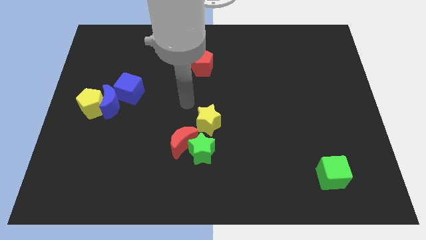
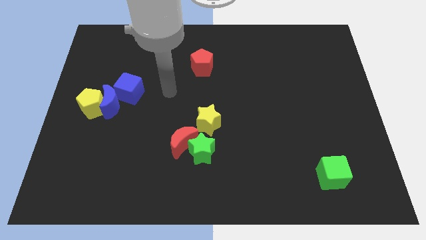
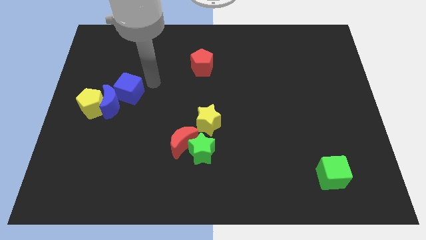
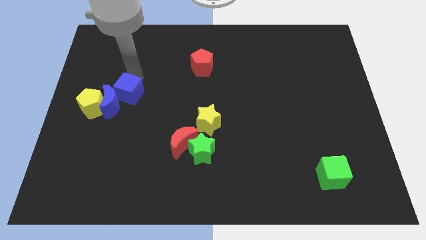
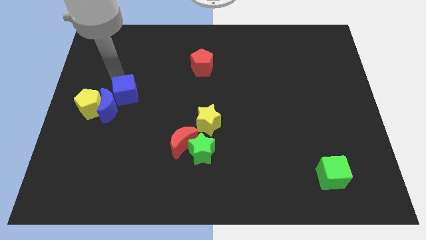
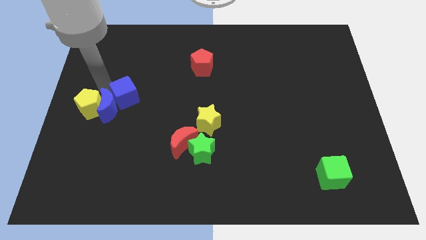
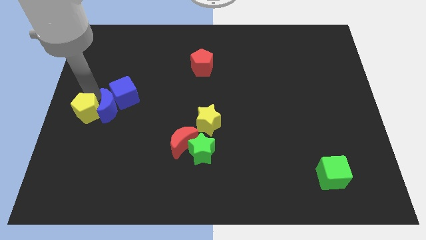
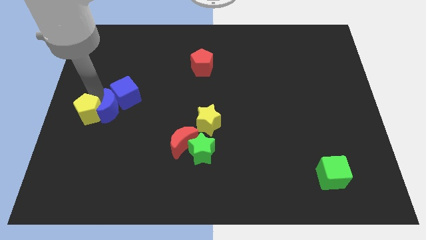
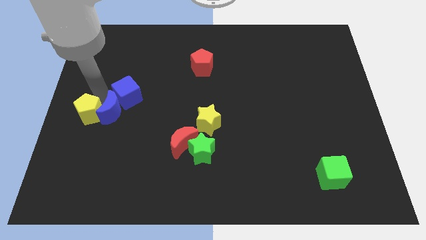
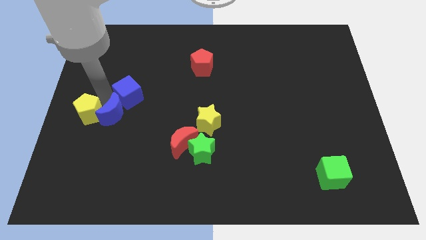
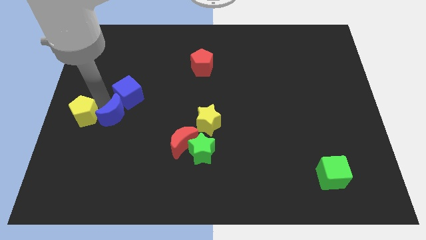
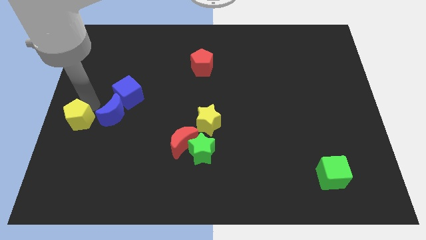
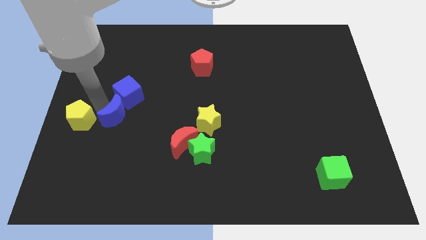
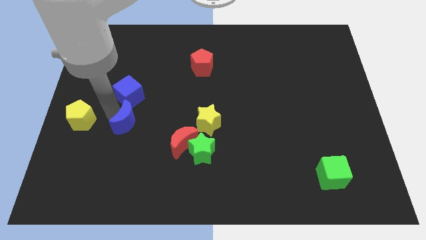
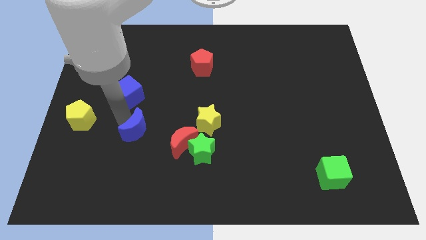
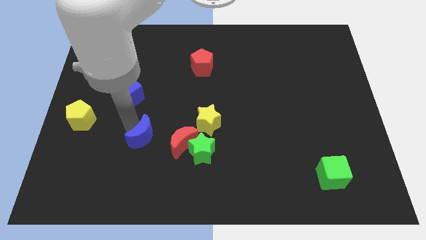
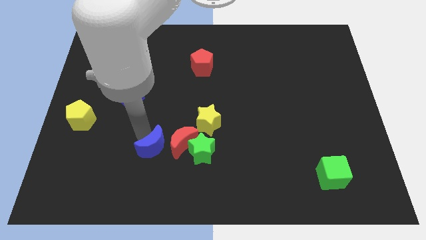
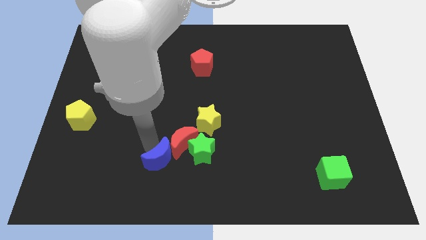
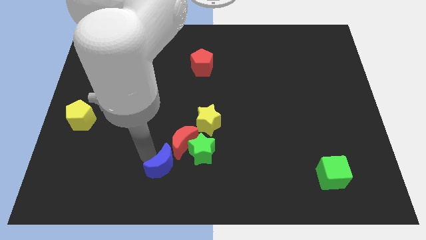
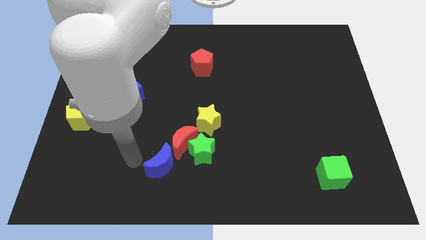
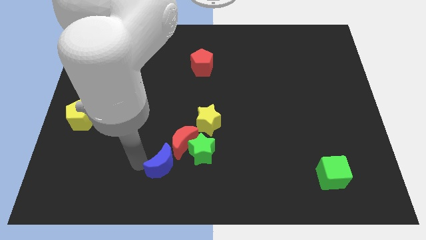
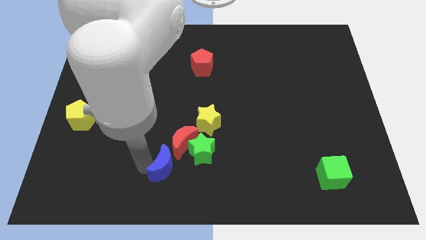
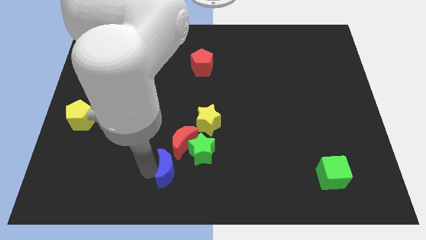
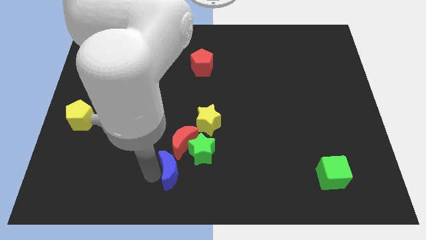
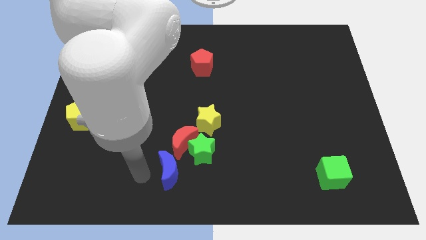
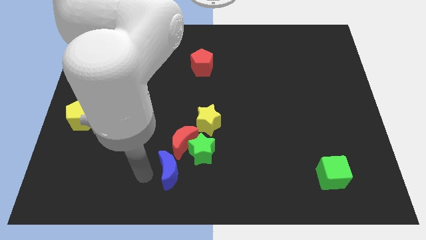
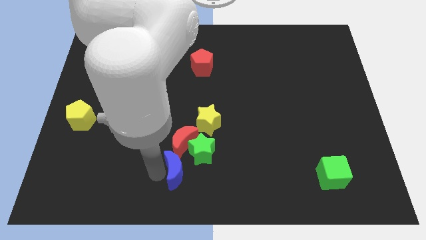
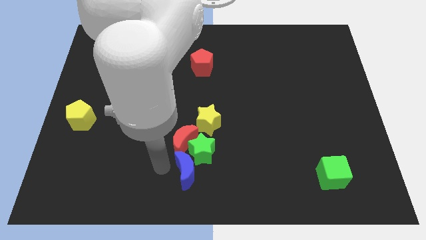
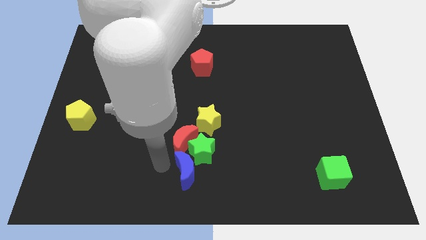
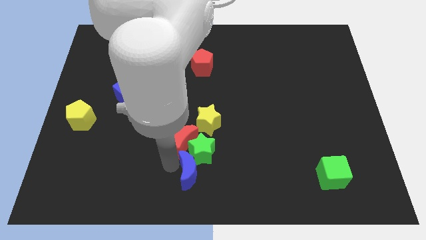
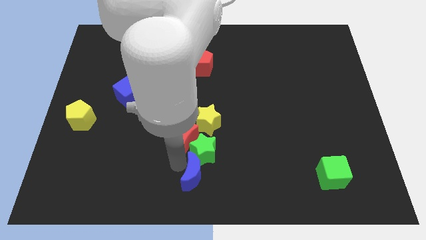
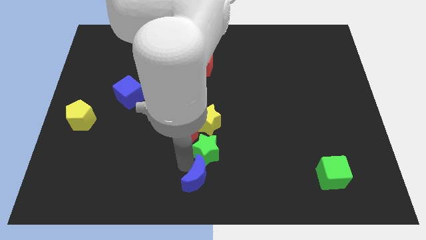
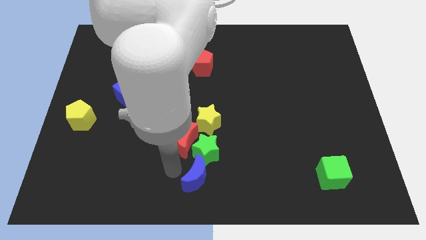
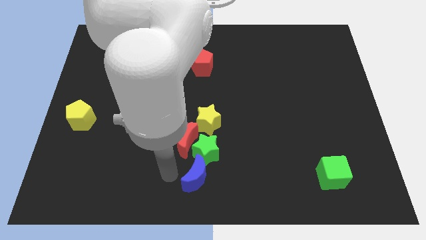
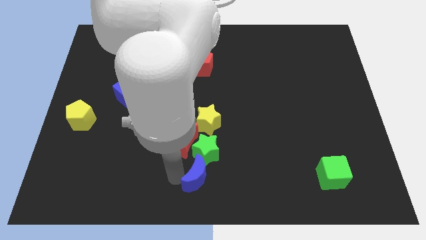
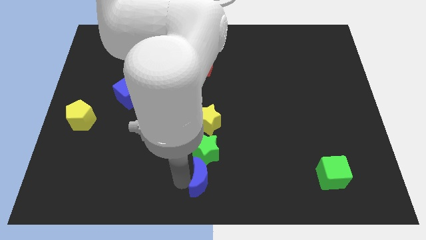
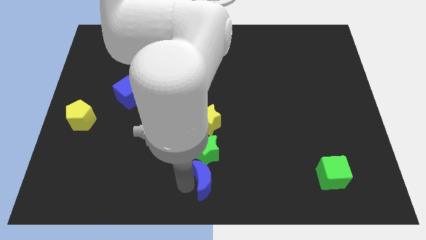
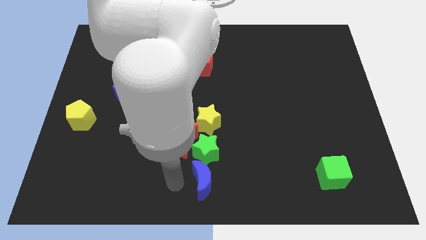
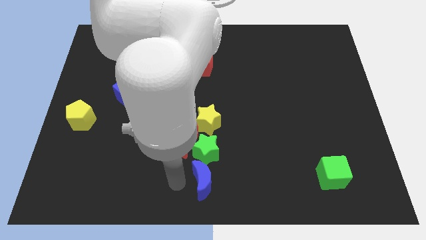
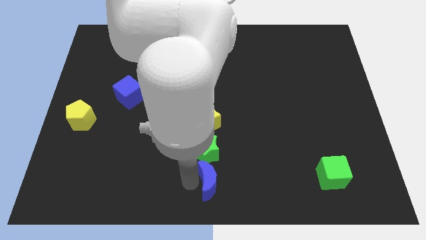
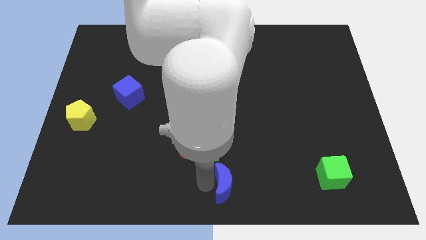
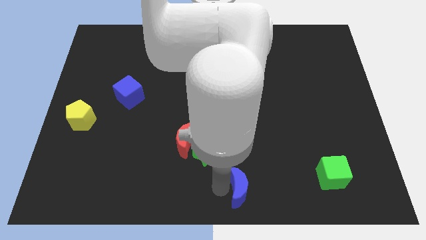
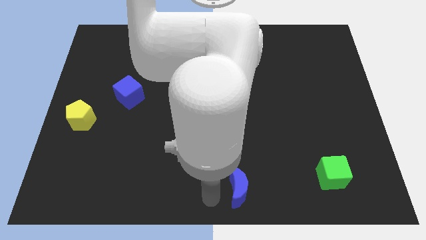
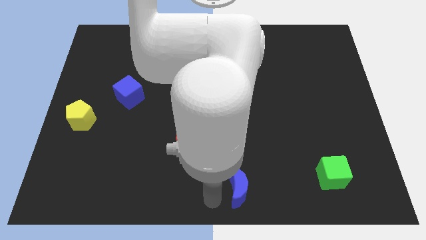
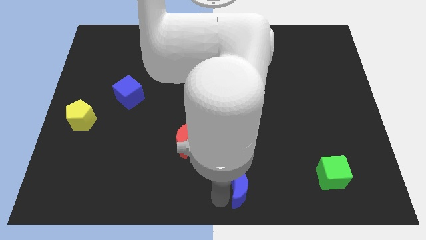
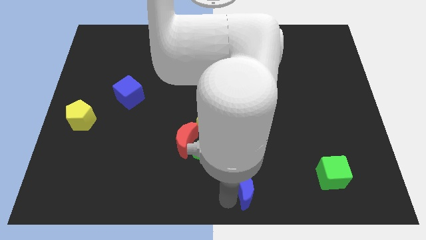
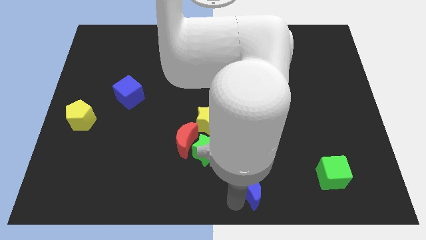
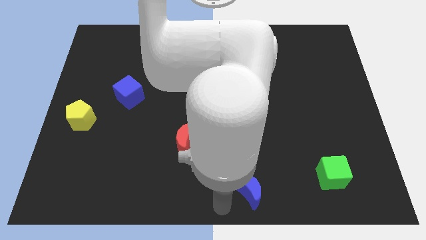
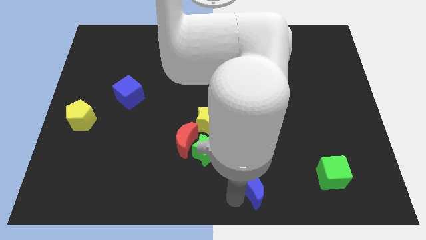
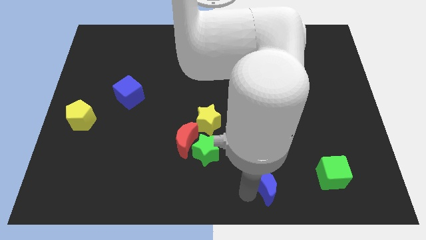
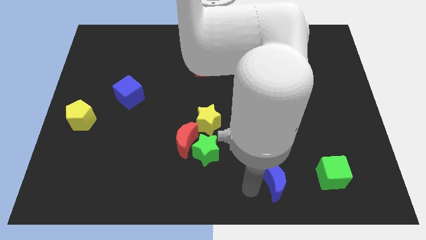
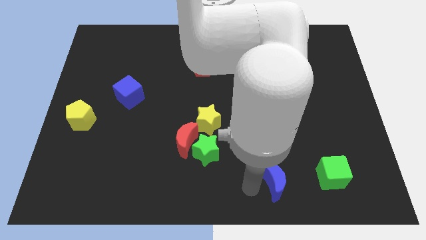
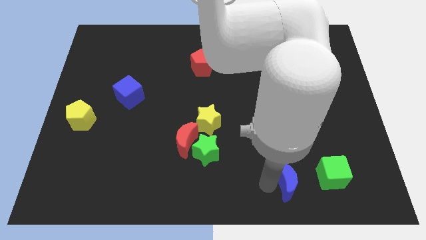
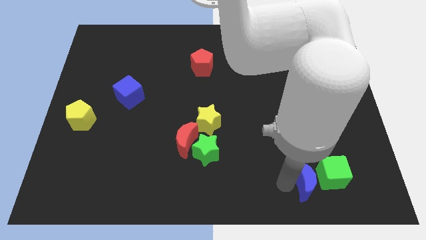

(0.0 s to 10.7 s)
slide the blue moon close to the green cube

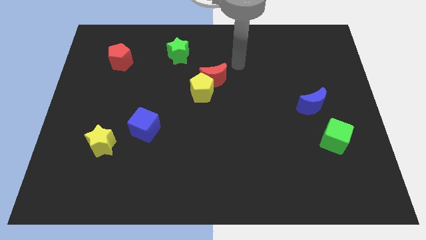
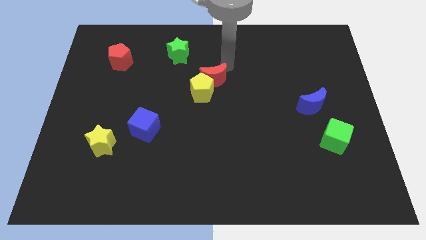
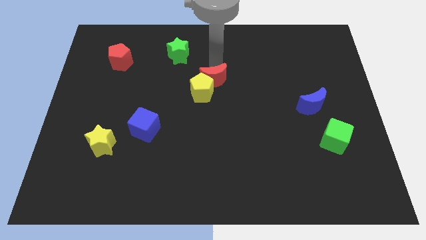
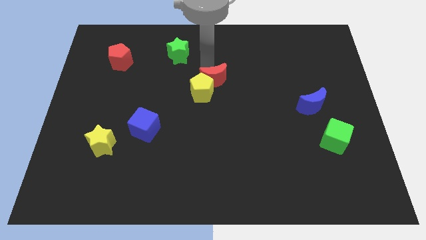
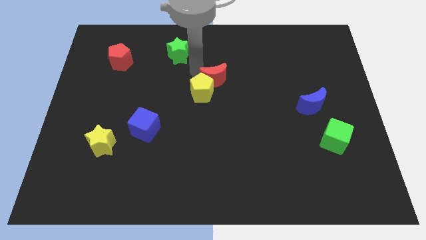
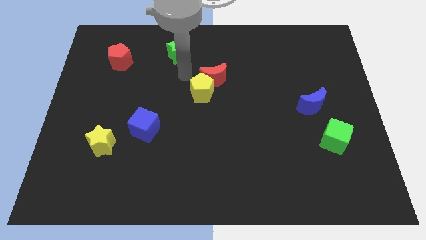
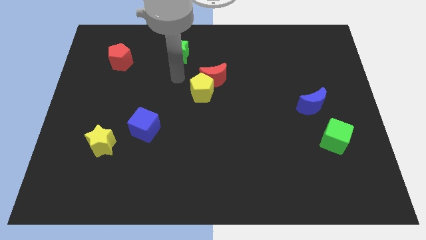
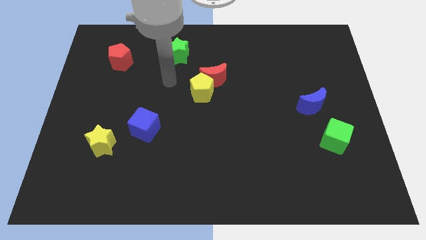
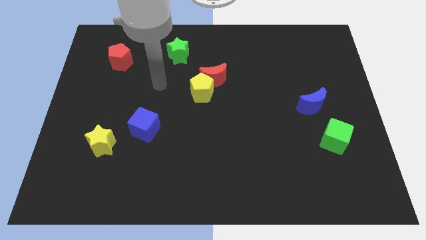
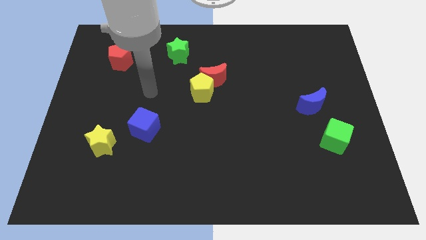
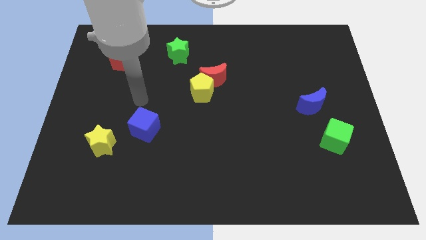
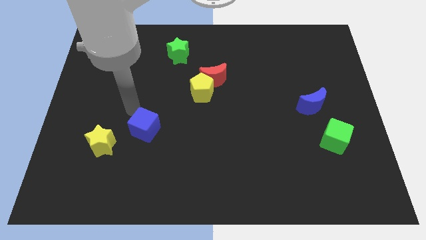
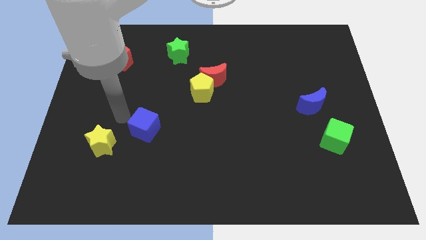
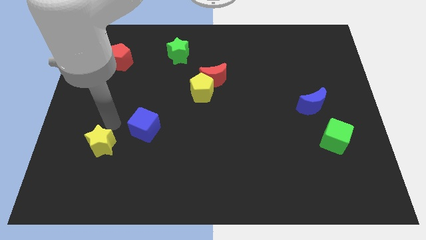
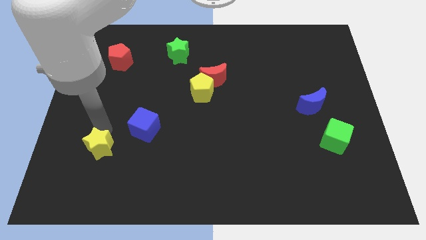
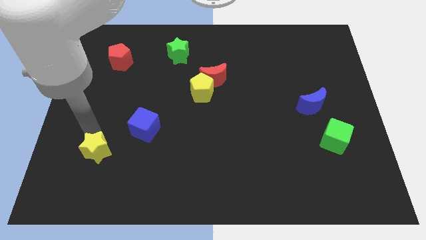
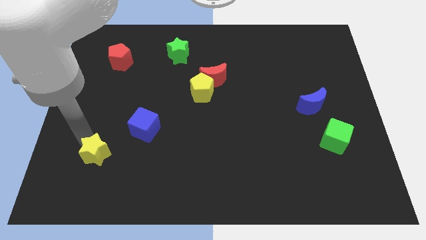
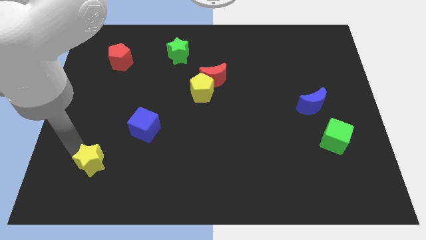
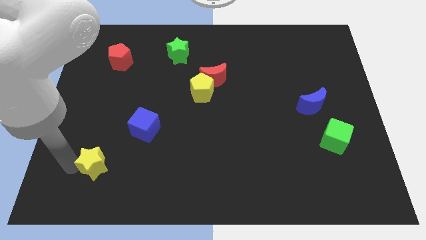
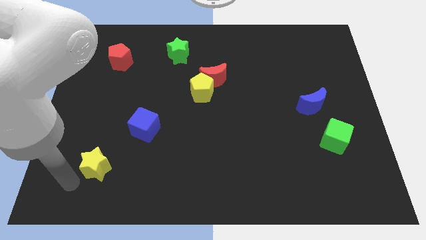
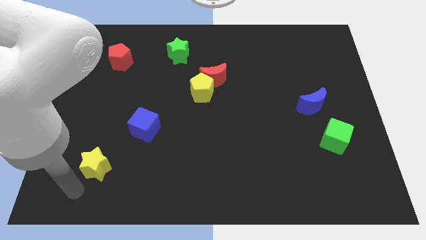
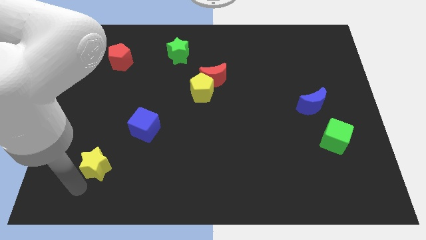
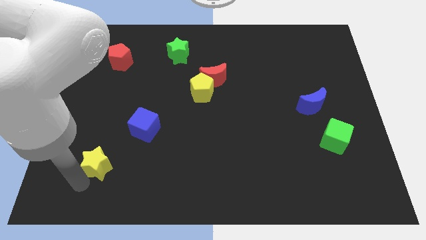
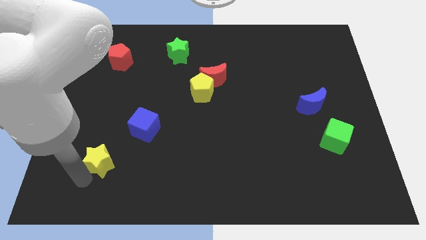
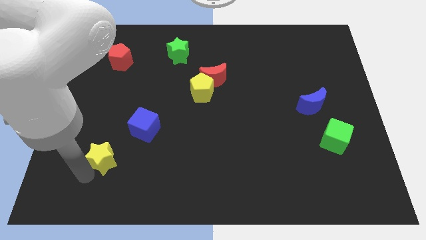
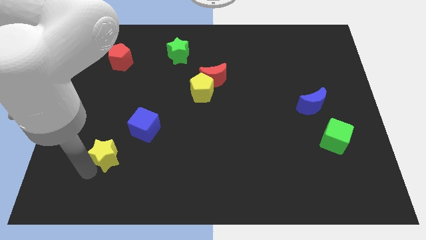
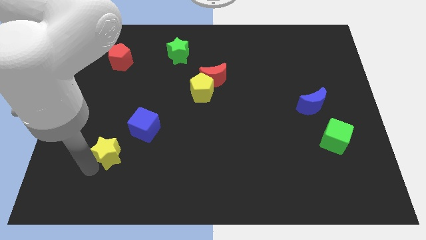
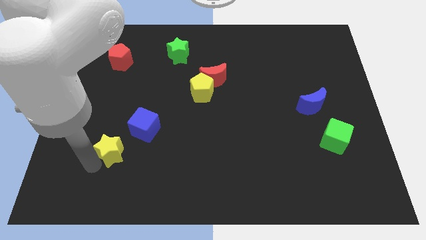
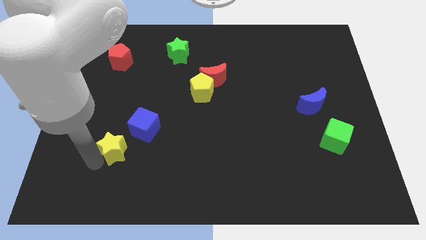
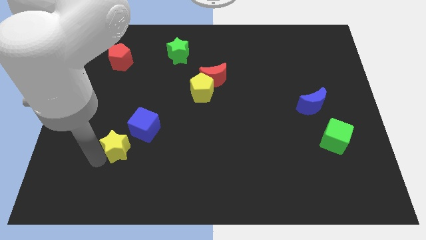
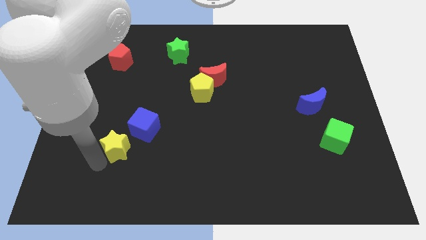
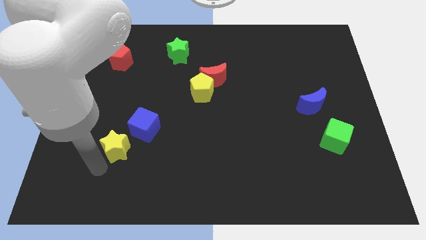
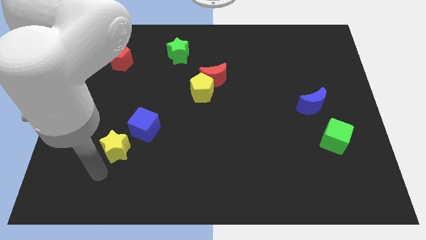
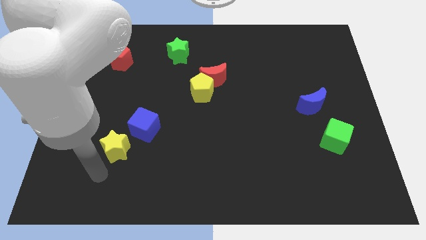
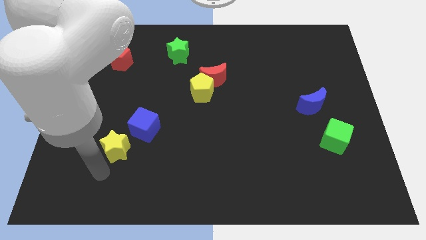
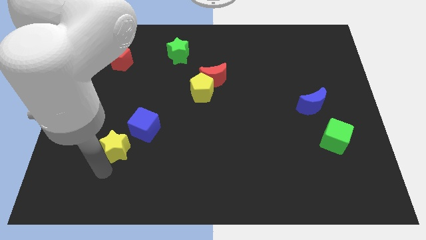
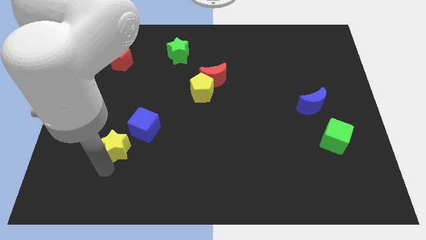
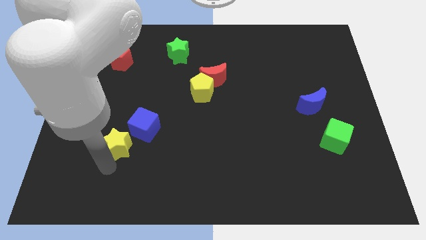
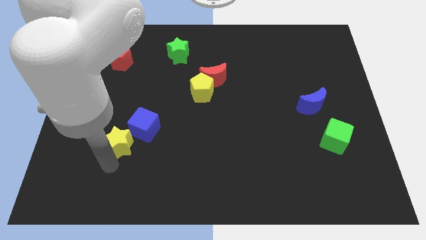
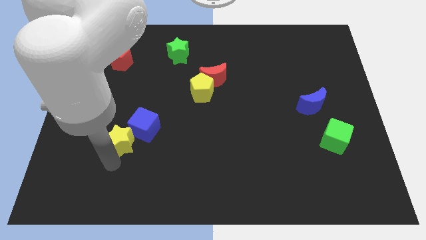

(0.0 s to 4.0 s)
push the yellow star to the blue cube
